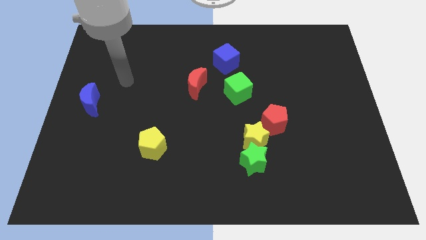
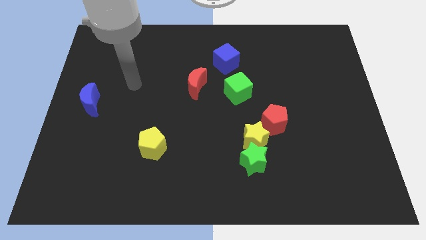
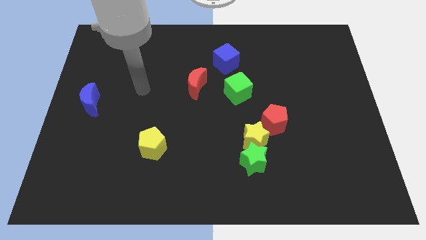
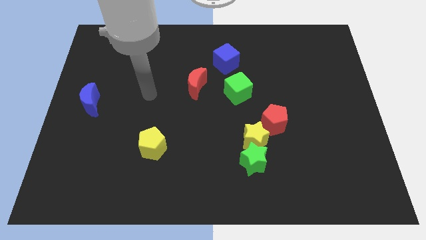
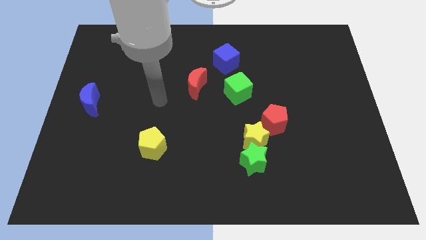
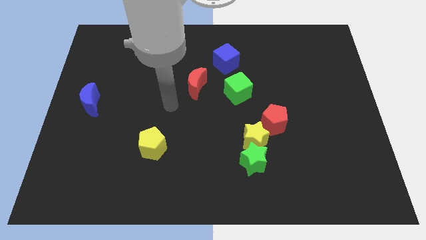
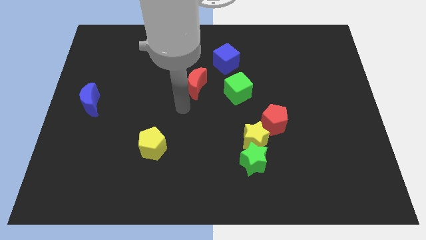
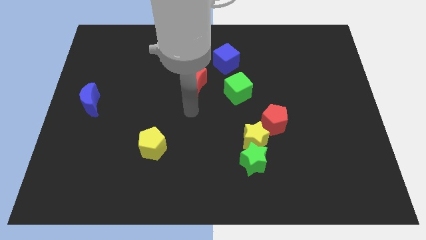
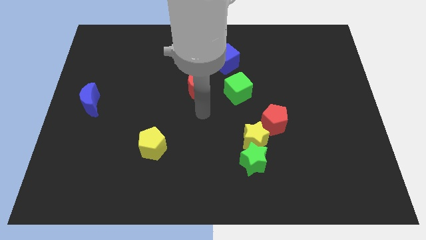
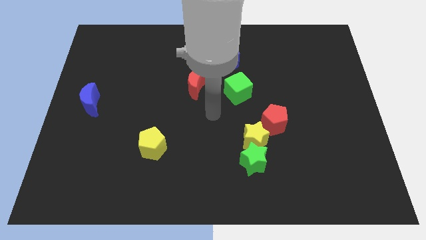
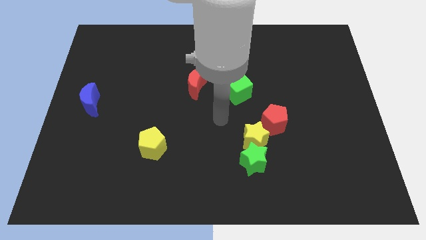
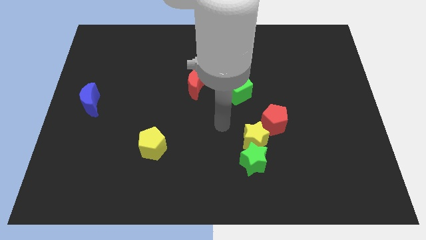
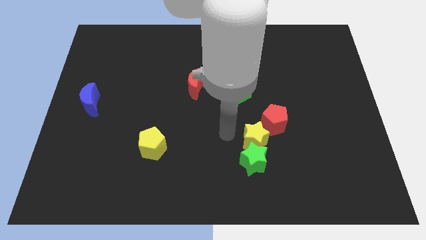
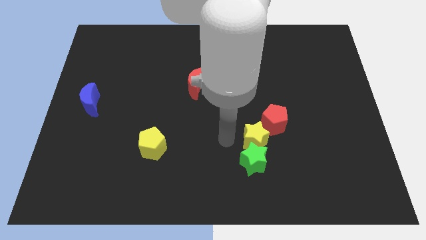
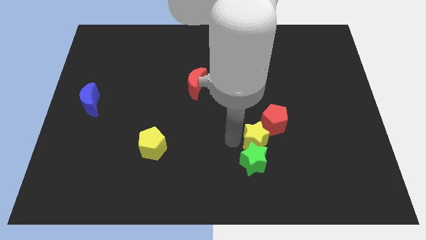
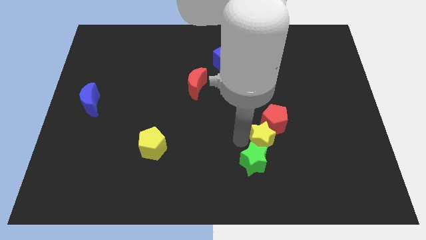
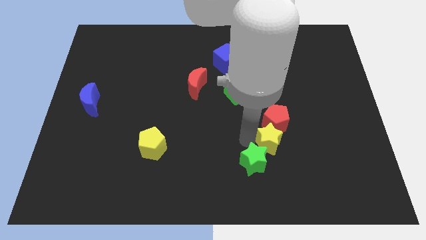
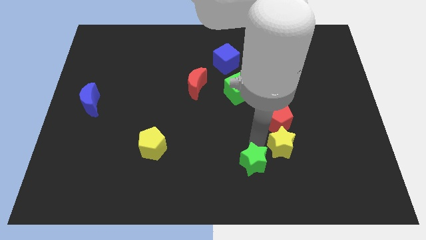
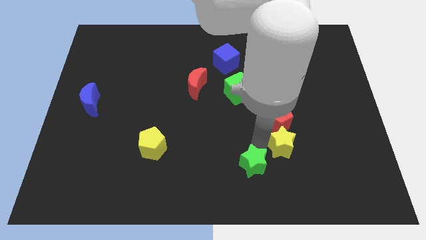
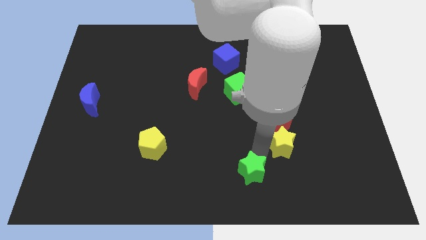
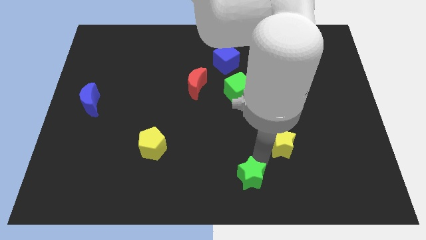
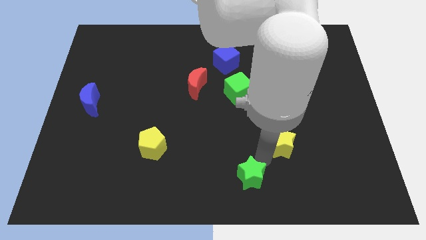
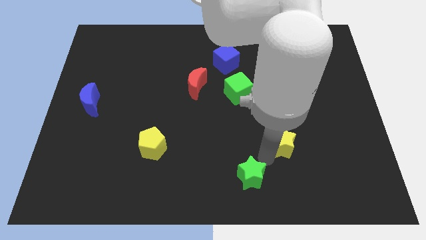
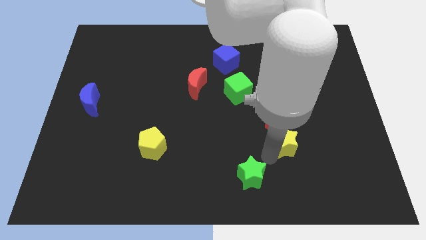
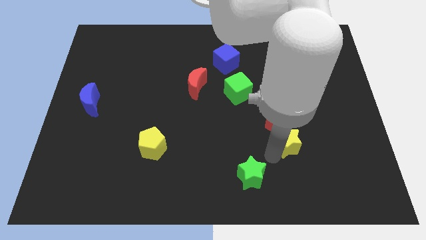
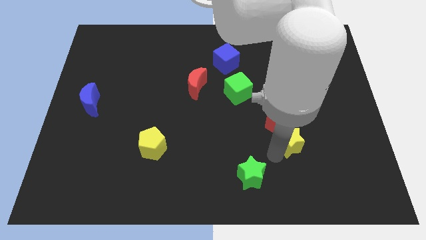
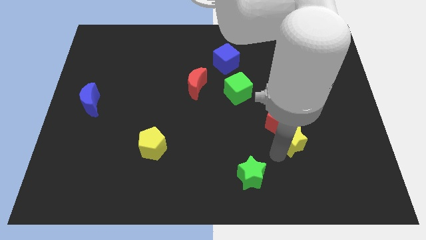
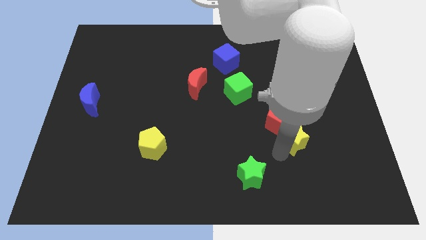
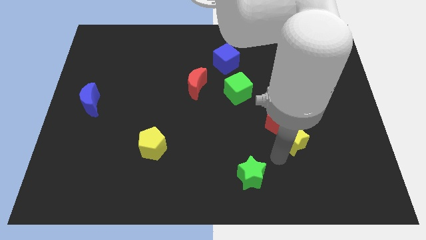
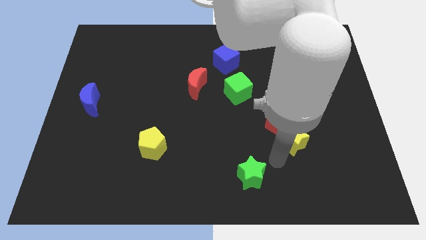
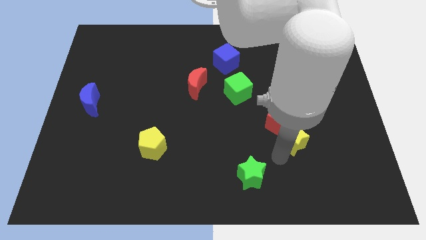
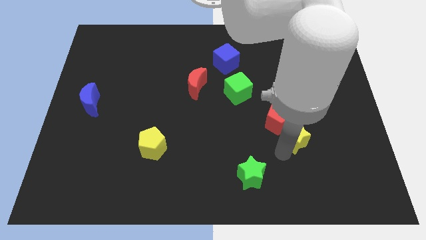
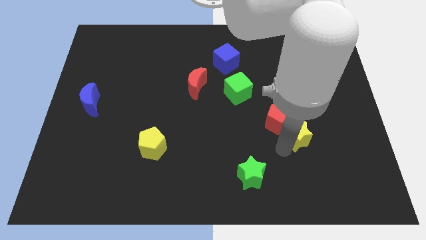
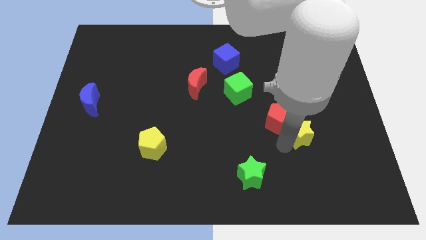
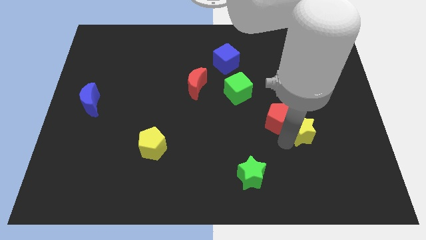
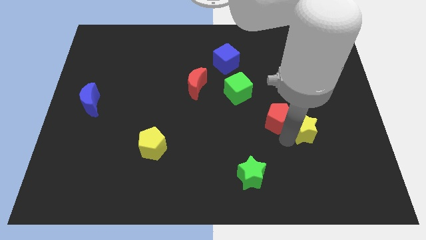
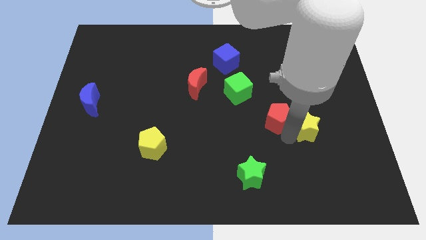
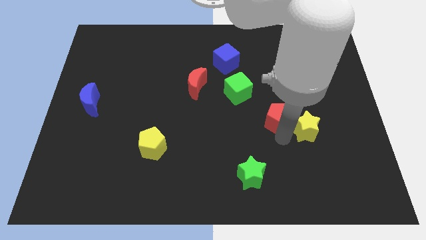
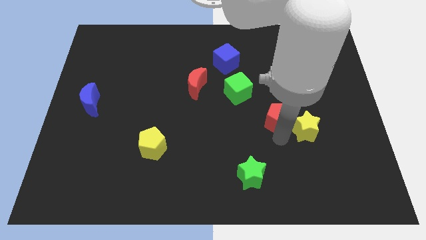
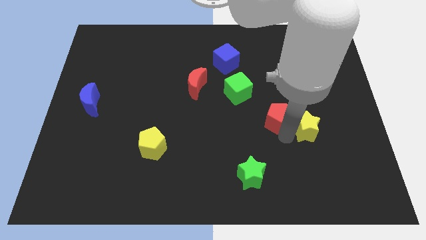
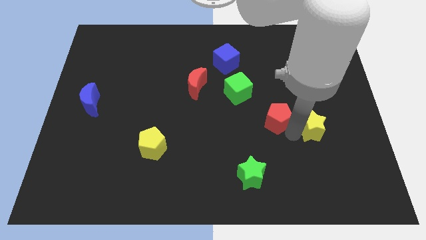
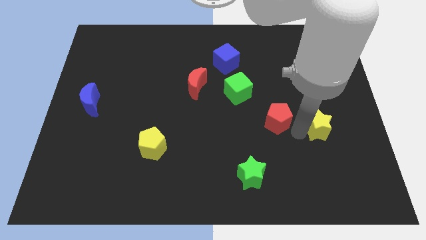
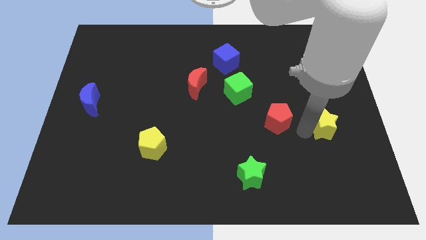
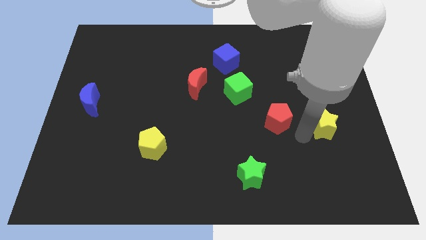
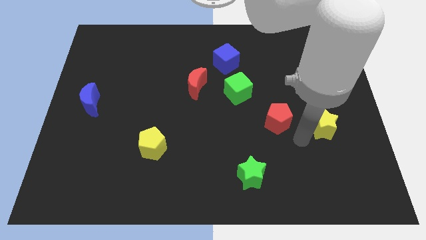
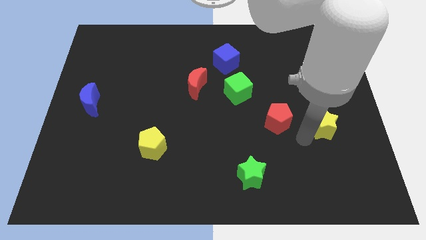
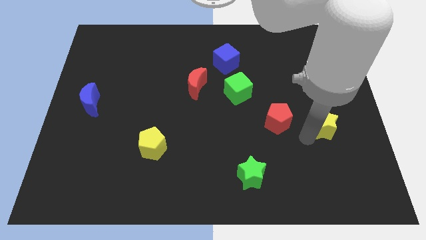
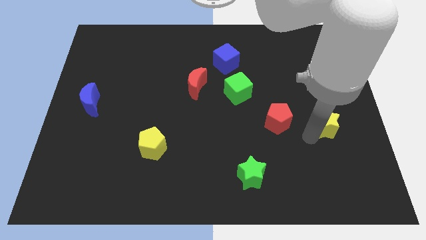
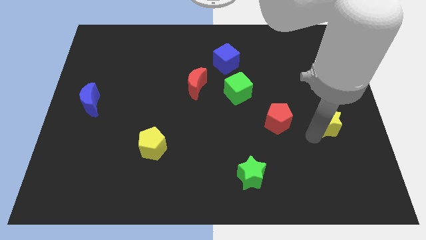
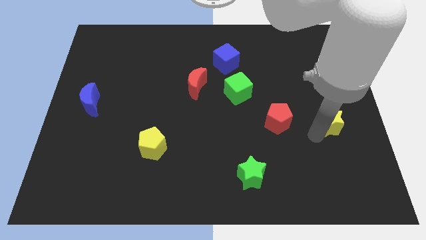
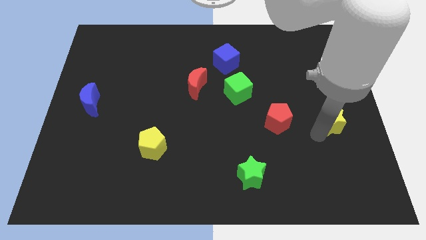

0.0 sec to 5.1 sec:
push the yellow star to the center right

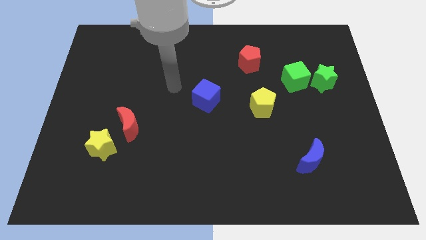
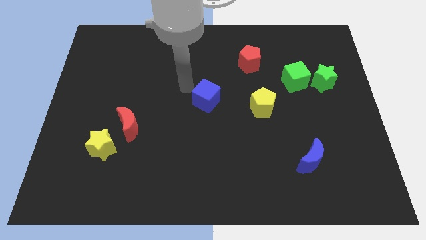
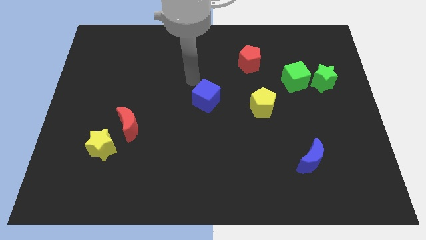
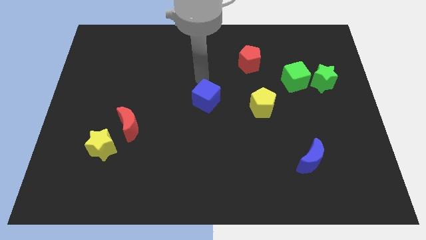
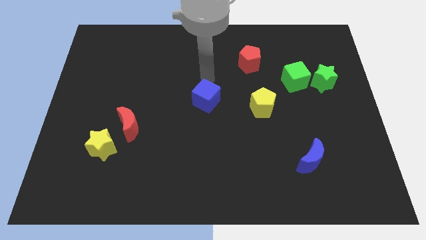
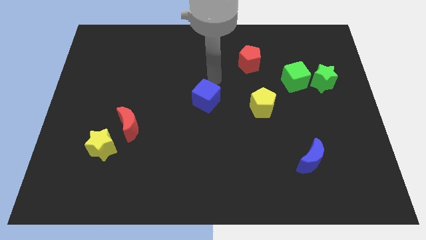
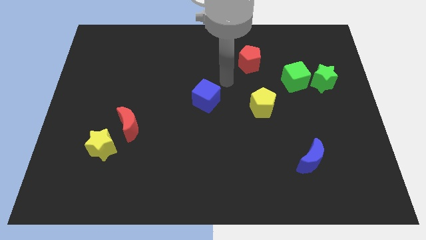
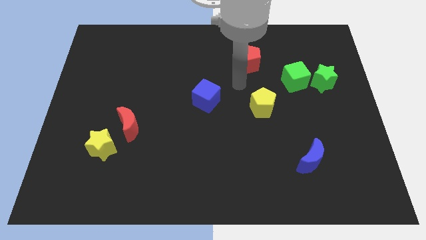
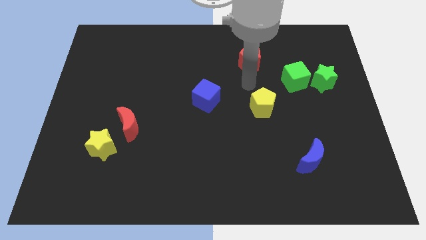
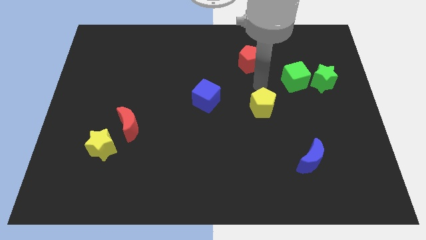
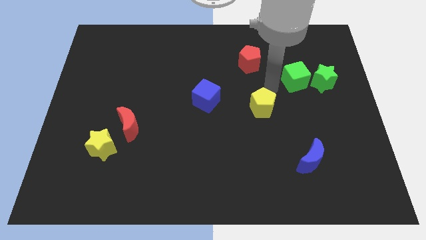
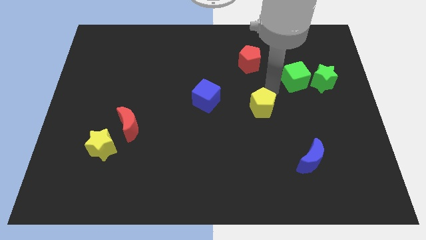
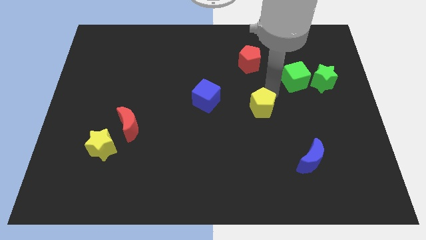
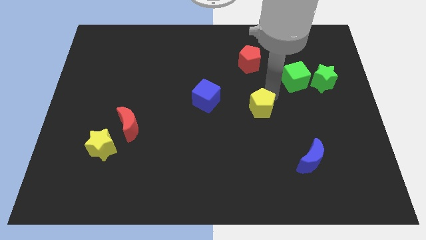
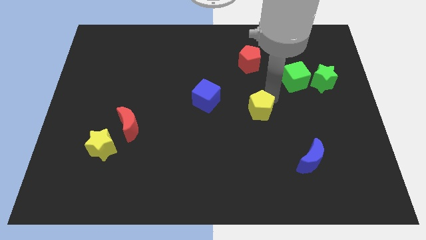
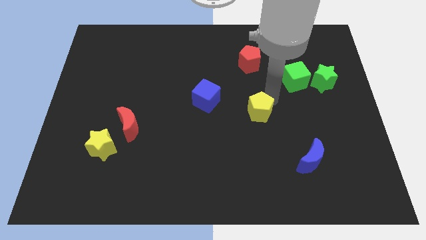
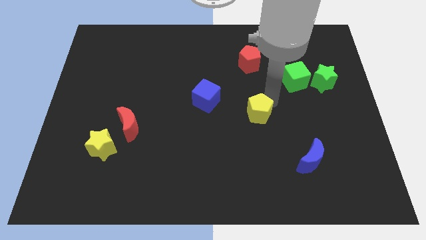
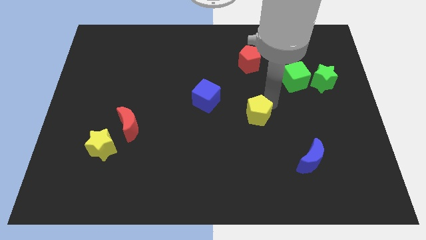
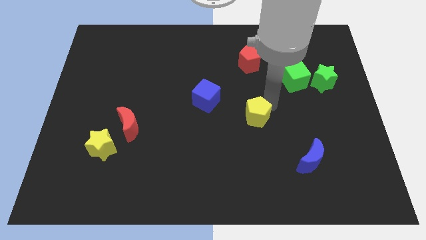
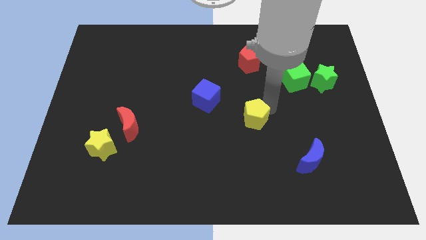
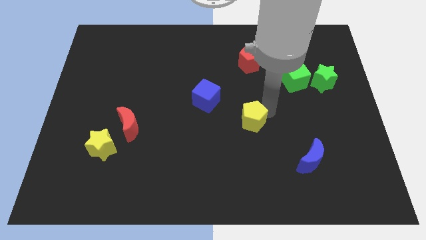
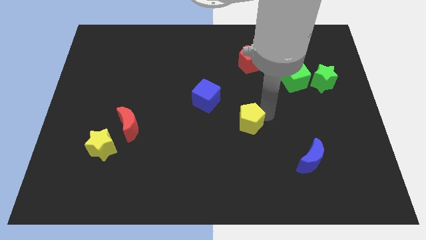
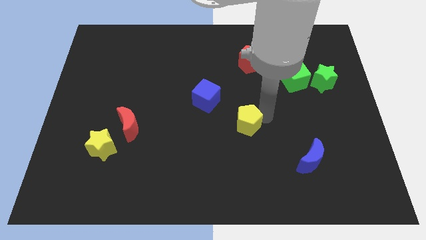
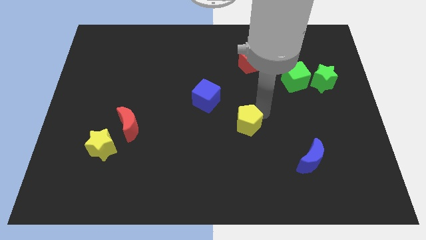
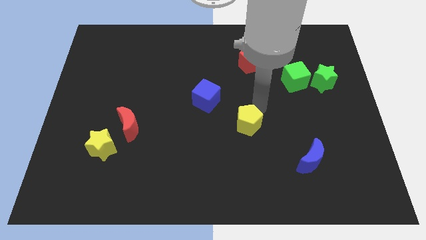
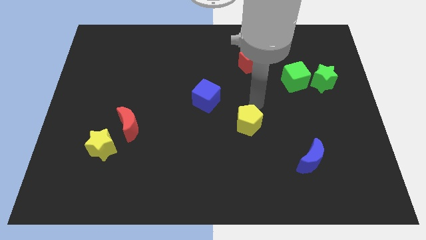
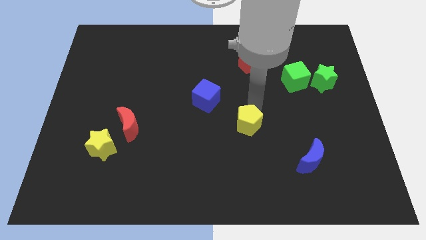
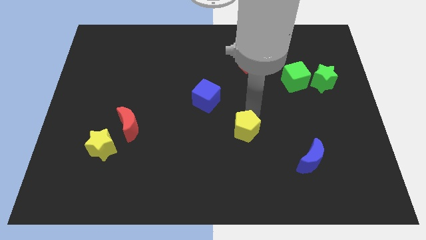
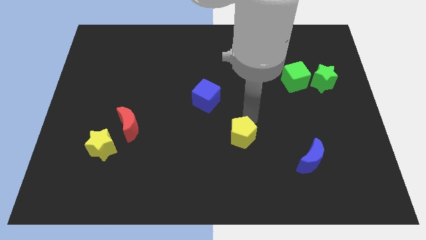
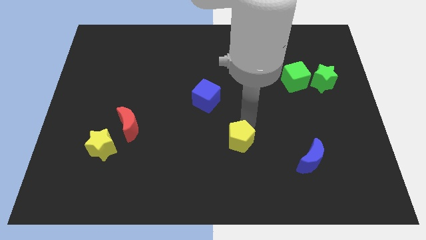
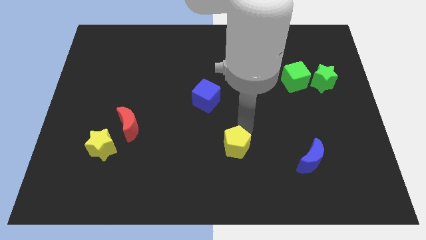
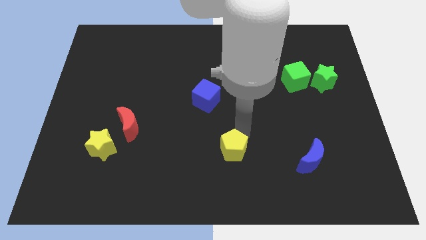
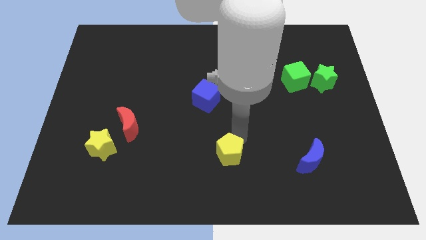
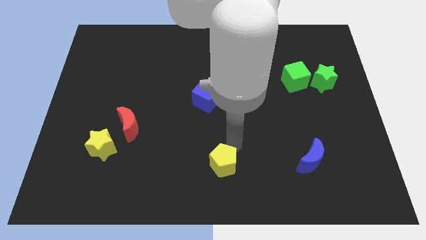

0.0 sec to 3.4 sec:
move the yellow pentagon to the bottom
